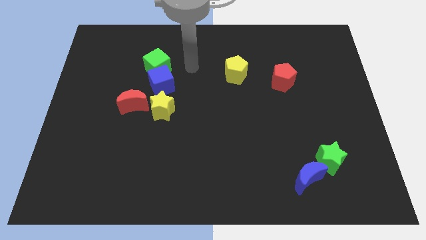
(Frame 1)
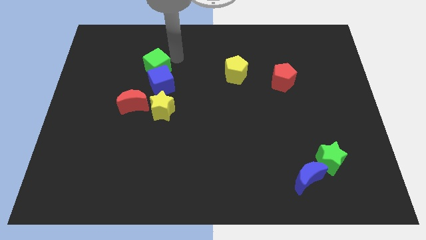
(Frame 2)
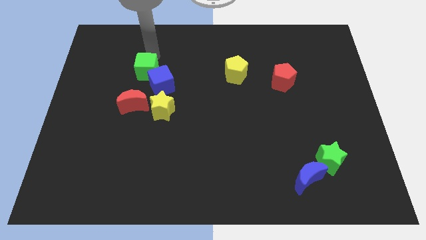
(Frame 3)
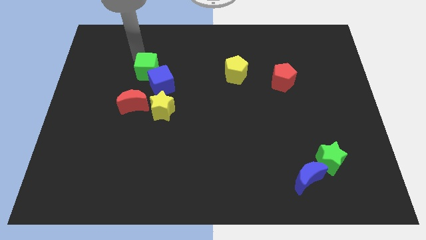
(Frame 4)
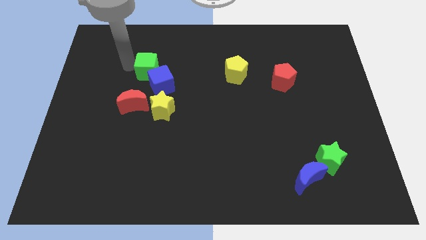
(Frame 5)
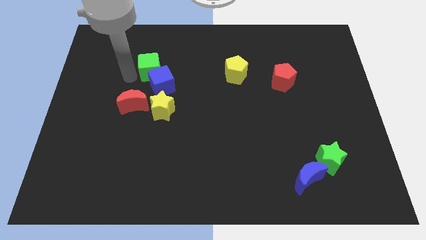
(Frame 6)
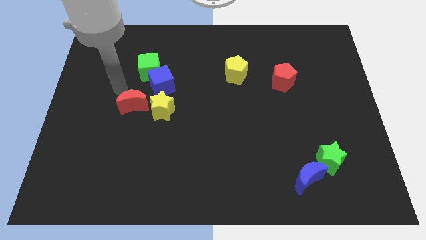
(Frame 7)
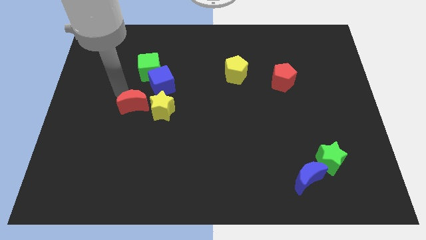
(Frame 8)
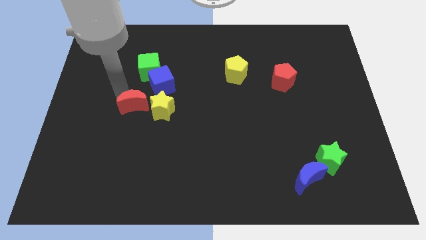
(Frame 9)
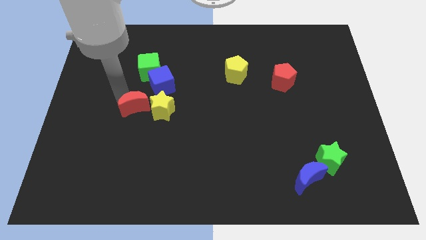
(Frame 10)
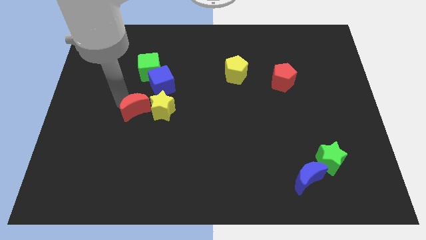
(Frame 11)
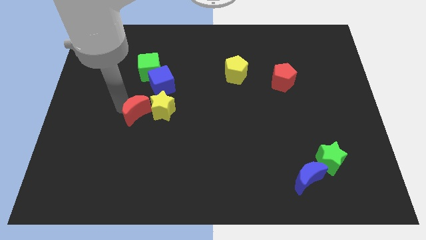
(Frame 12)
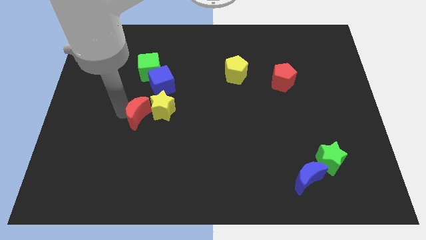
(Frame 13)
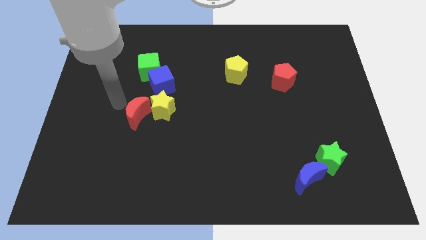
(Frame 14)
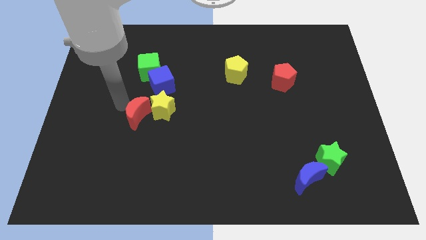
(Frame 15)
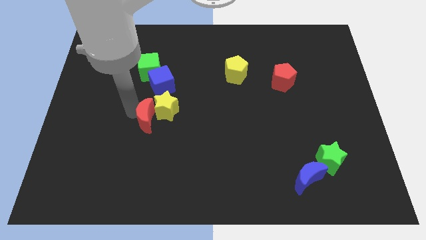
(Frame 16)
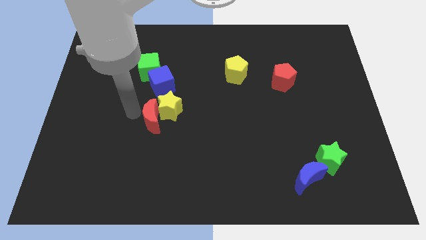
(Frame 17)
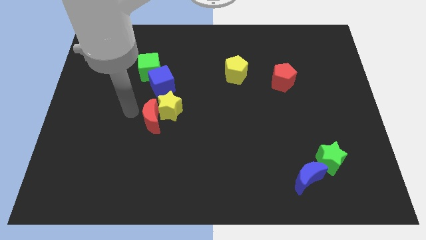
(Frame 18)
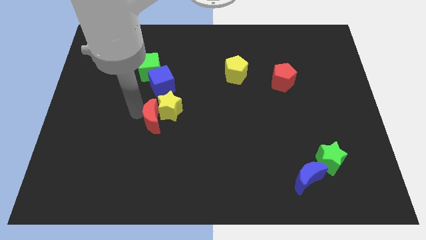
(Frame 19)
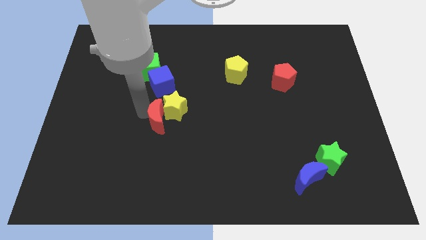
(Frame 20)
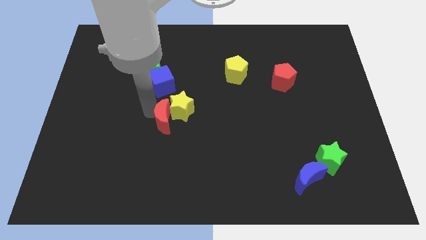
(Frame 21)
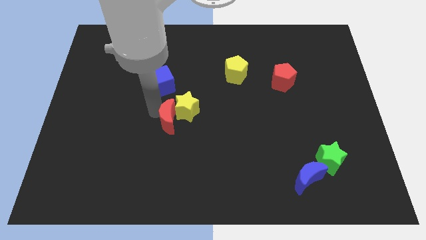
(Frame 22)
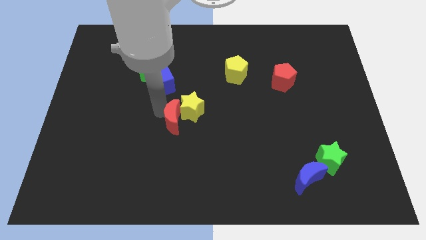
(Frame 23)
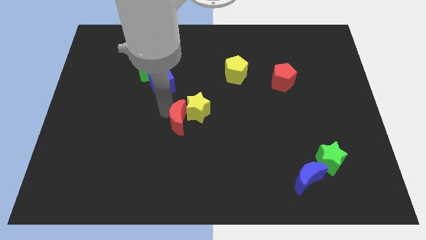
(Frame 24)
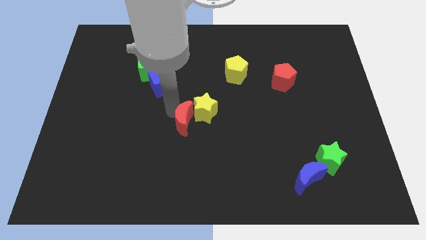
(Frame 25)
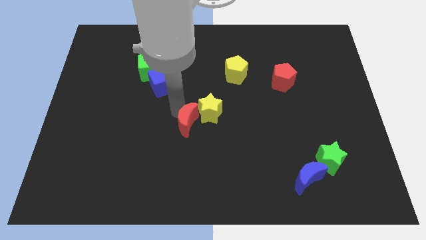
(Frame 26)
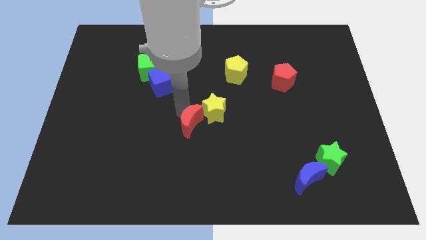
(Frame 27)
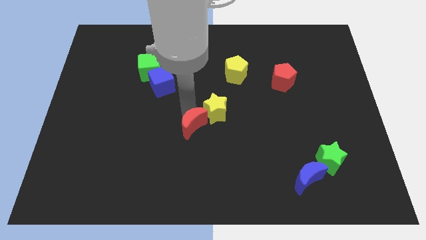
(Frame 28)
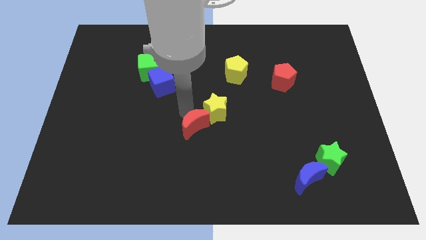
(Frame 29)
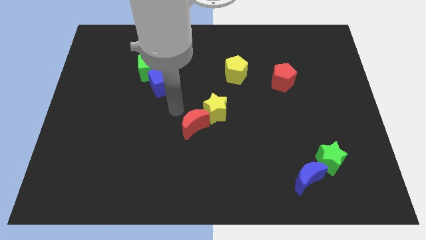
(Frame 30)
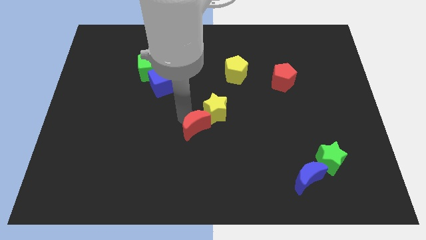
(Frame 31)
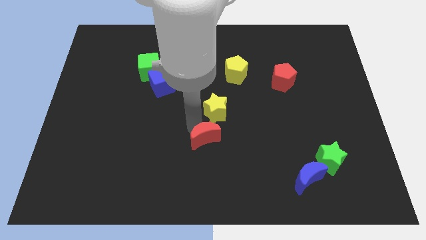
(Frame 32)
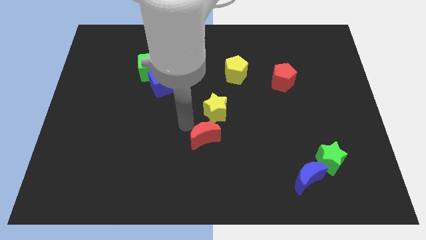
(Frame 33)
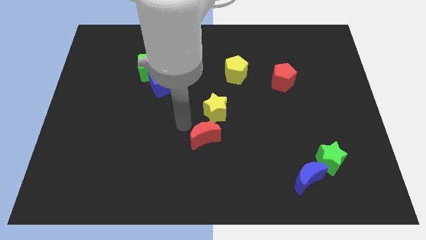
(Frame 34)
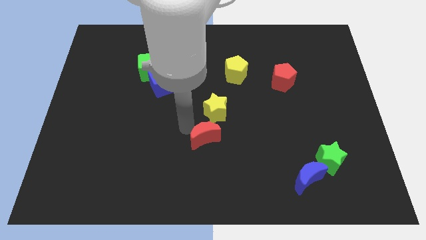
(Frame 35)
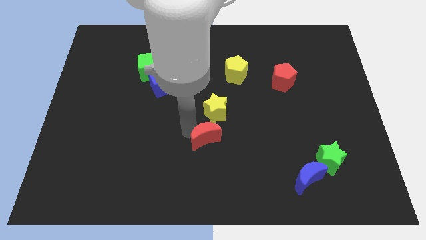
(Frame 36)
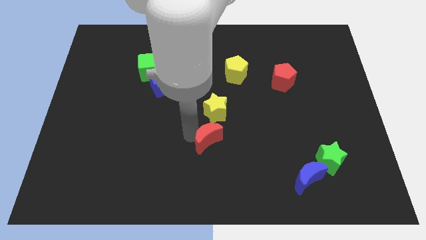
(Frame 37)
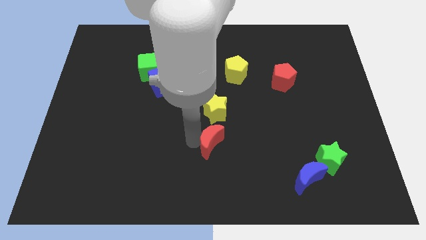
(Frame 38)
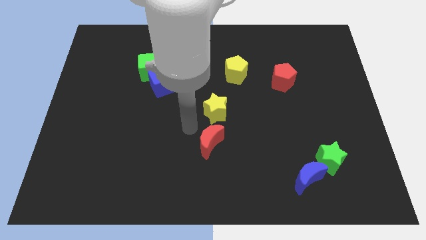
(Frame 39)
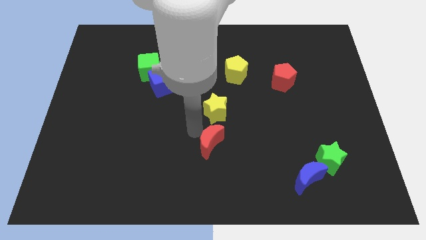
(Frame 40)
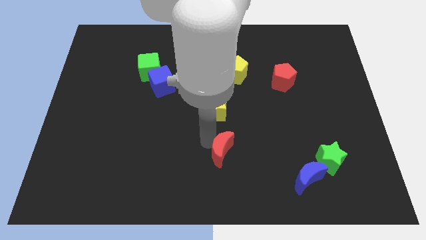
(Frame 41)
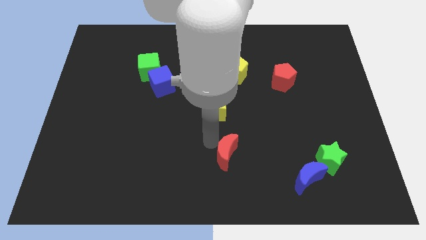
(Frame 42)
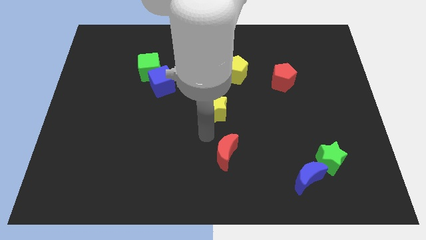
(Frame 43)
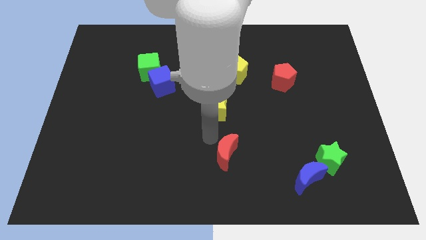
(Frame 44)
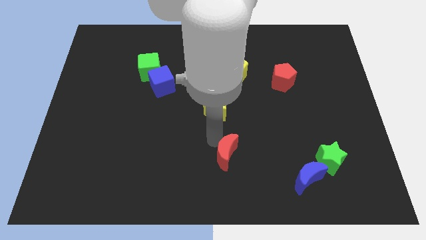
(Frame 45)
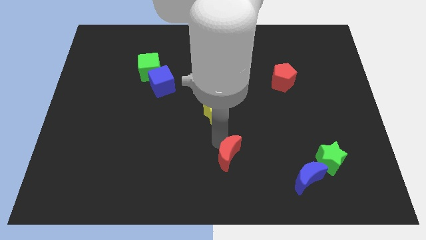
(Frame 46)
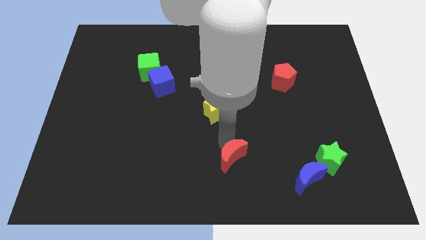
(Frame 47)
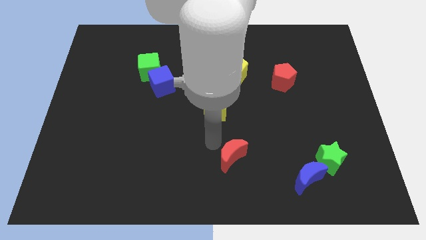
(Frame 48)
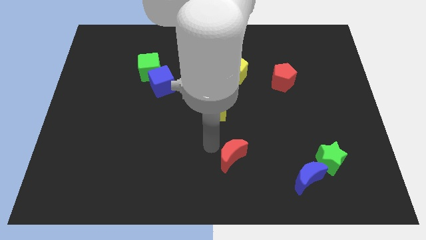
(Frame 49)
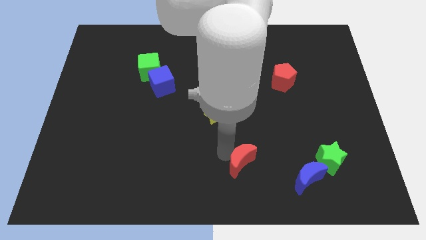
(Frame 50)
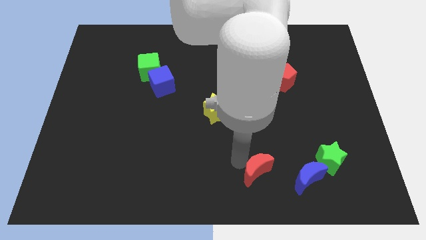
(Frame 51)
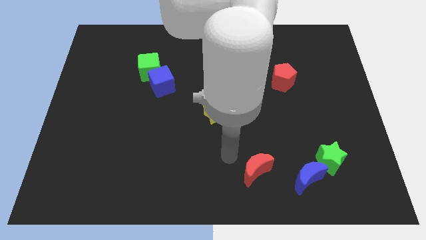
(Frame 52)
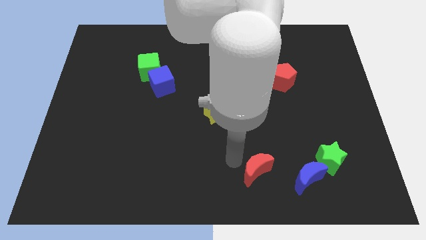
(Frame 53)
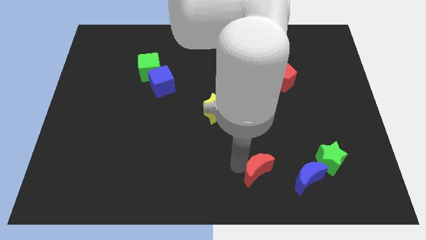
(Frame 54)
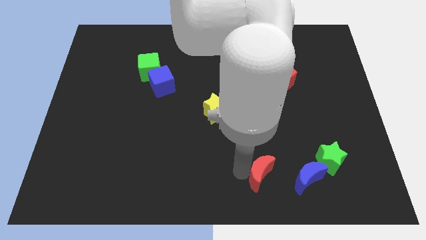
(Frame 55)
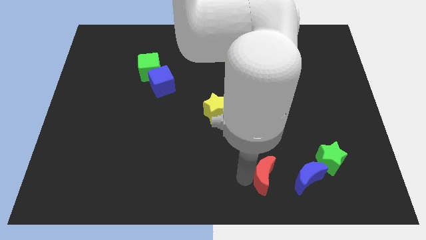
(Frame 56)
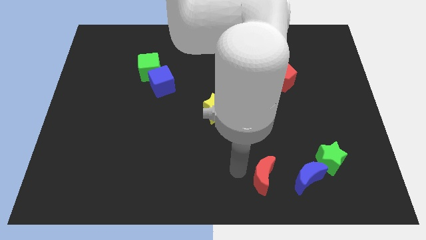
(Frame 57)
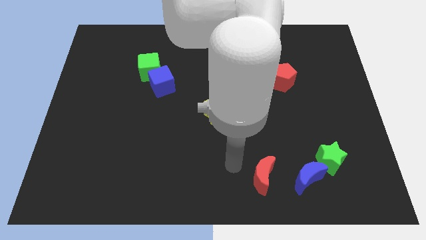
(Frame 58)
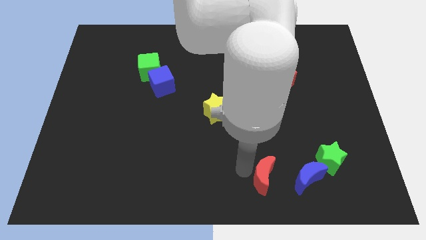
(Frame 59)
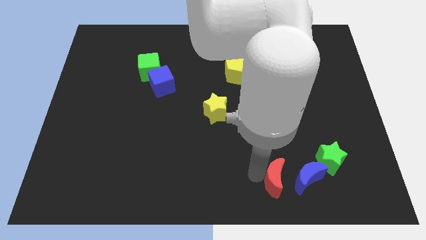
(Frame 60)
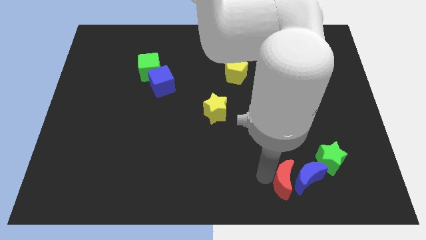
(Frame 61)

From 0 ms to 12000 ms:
move the red moon to the bottom left of the green star
